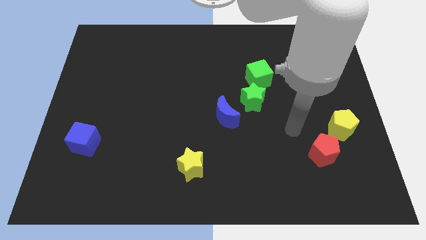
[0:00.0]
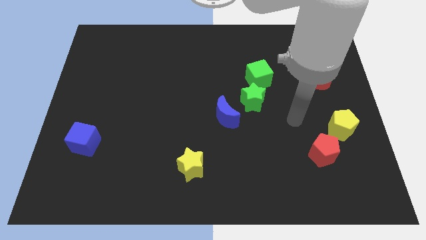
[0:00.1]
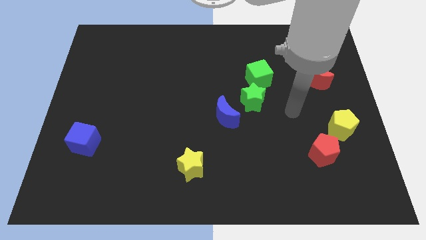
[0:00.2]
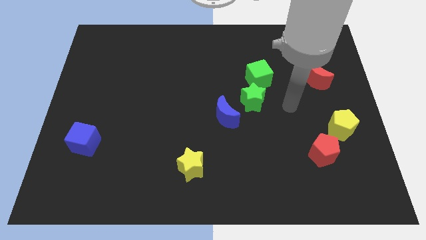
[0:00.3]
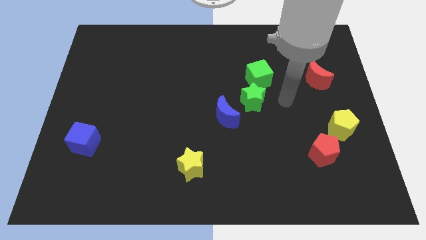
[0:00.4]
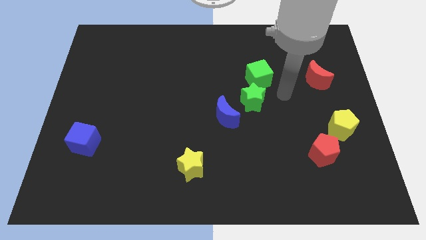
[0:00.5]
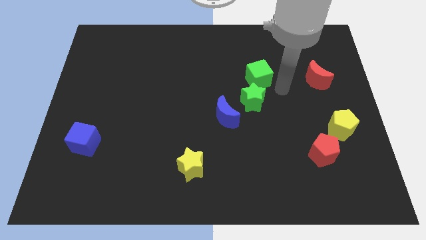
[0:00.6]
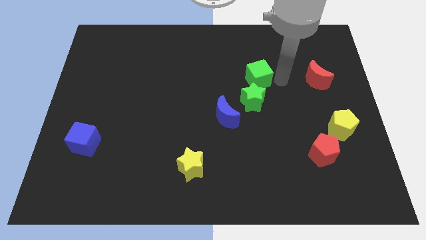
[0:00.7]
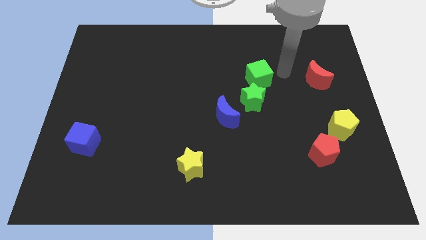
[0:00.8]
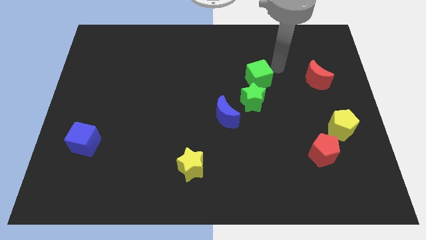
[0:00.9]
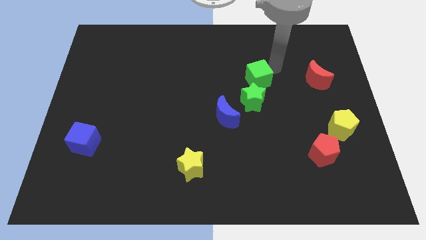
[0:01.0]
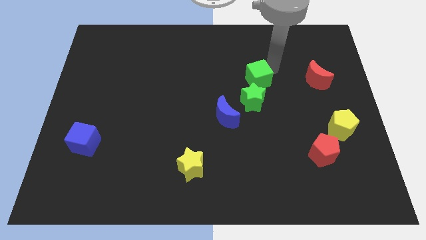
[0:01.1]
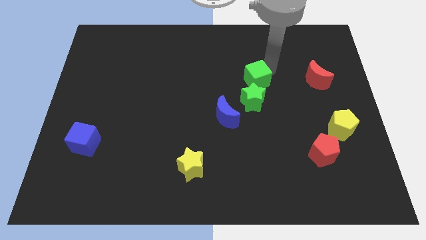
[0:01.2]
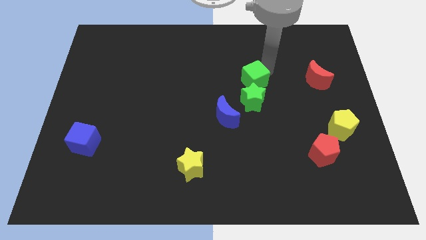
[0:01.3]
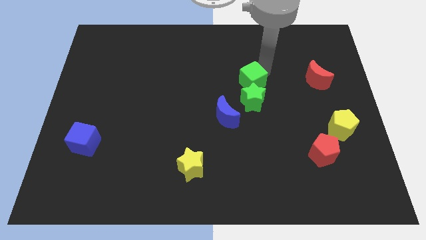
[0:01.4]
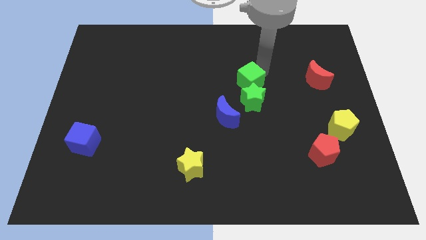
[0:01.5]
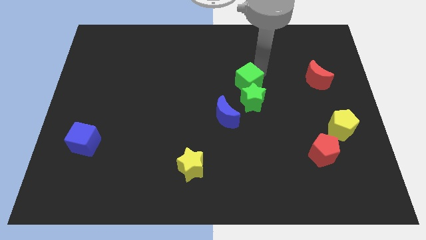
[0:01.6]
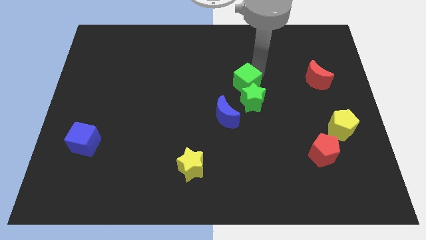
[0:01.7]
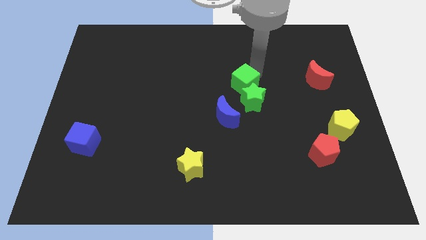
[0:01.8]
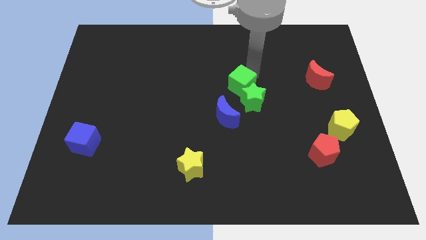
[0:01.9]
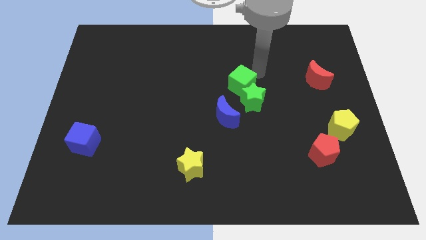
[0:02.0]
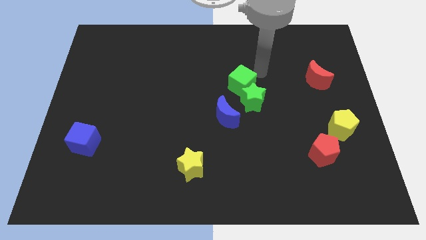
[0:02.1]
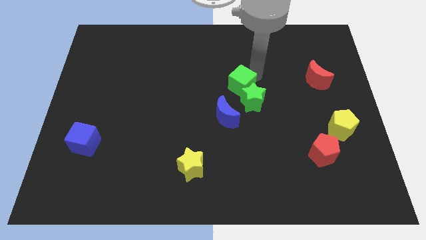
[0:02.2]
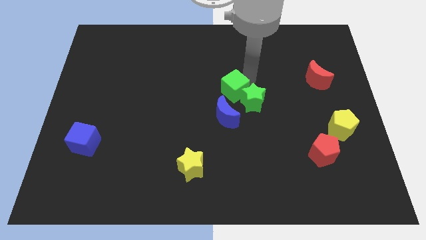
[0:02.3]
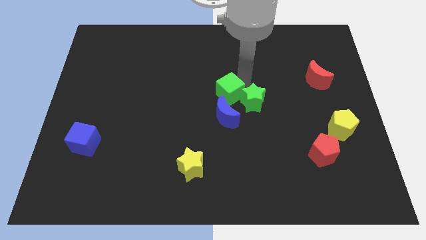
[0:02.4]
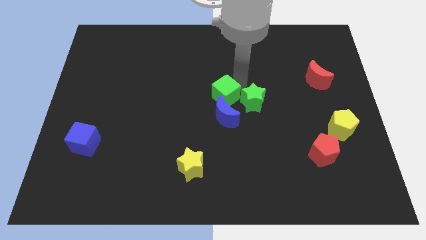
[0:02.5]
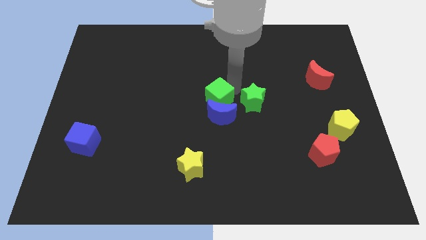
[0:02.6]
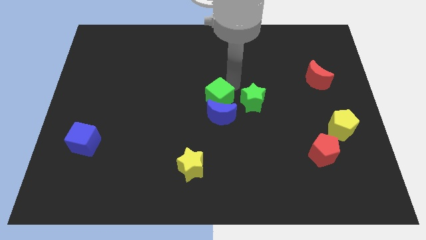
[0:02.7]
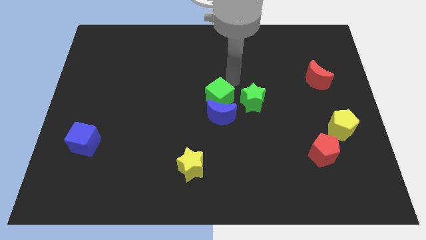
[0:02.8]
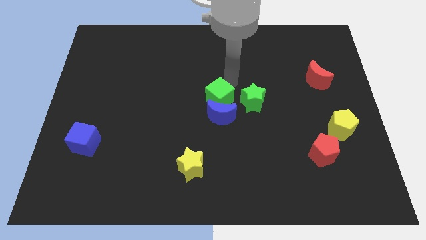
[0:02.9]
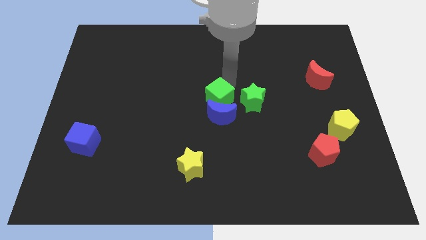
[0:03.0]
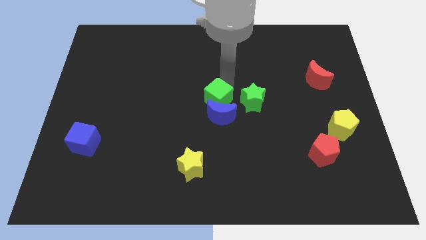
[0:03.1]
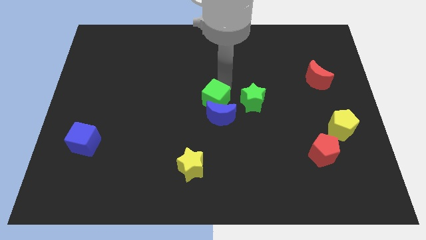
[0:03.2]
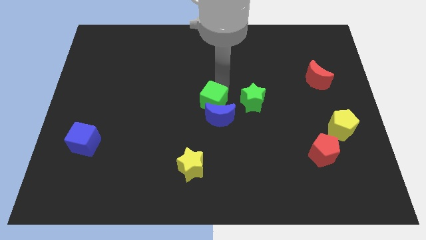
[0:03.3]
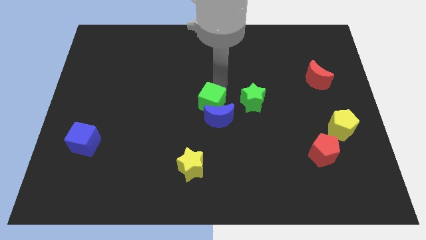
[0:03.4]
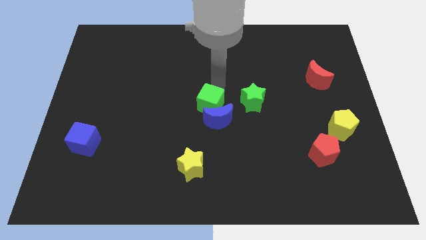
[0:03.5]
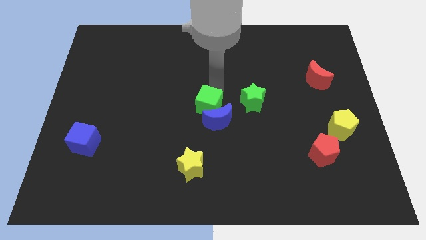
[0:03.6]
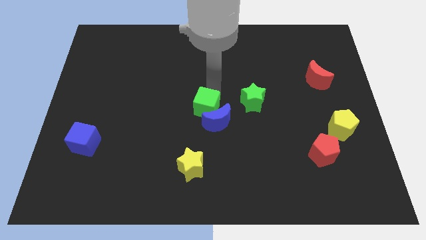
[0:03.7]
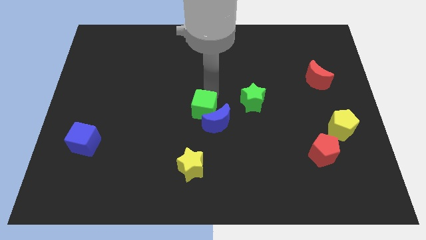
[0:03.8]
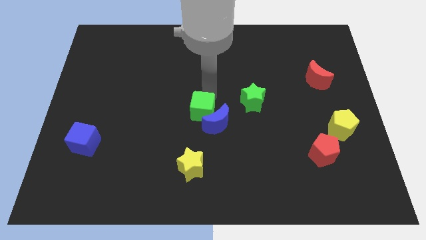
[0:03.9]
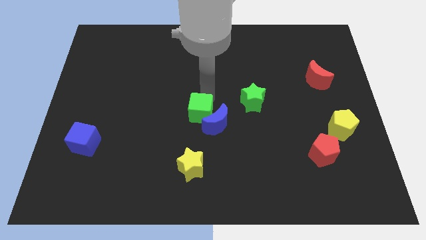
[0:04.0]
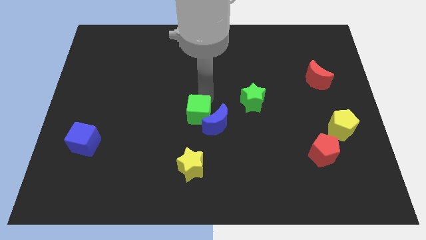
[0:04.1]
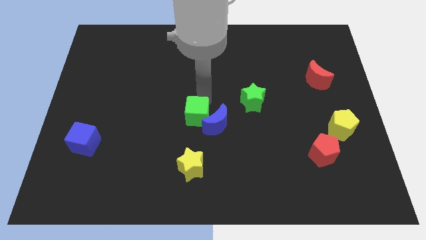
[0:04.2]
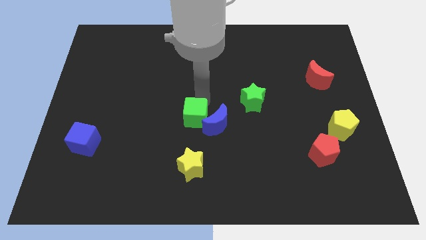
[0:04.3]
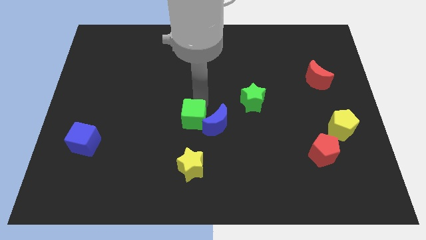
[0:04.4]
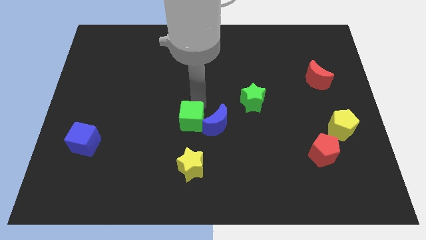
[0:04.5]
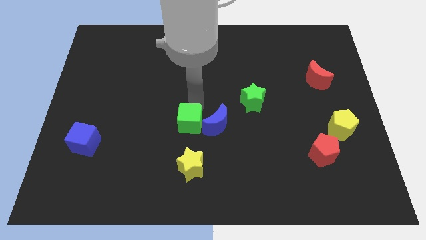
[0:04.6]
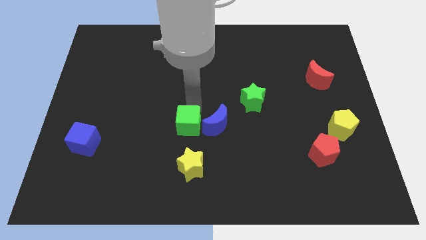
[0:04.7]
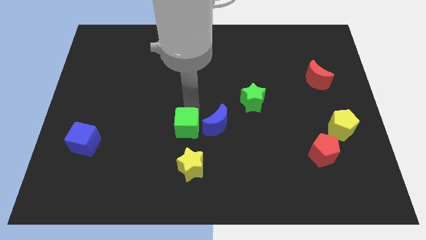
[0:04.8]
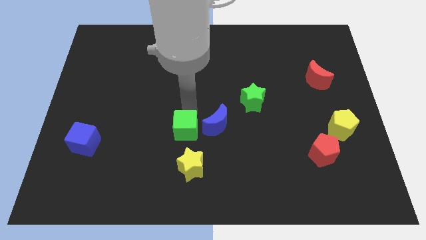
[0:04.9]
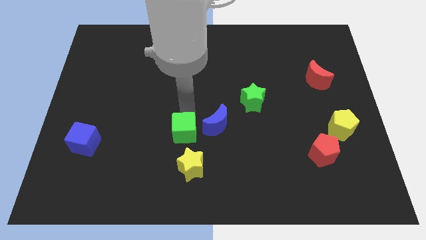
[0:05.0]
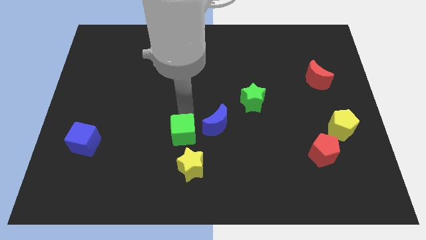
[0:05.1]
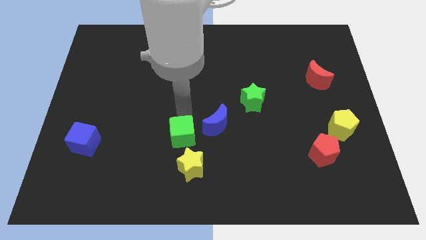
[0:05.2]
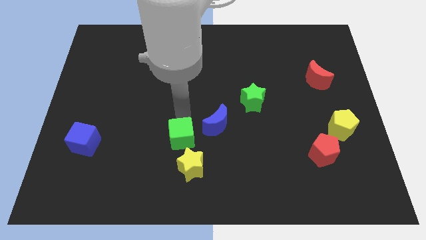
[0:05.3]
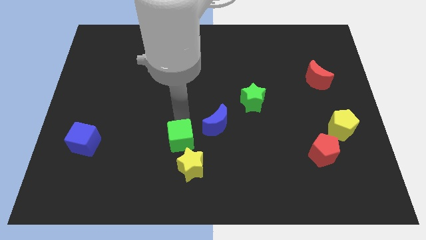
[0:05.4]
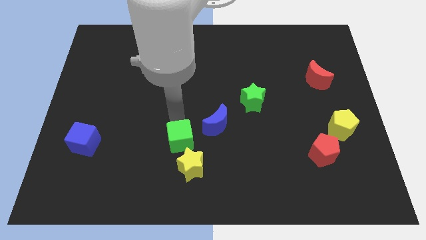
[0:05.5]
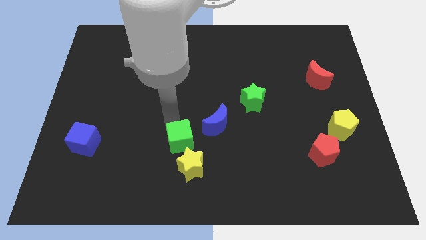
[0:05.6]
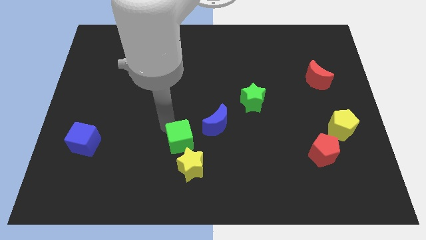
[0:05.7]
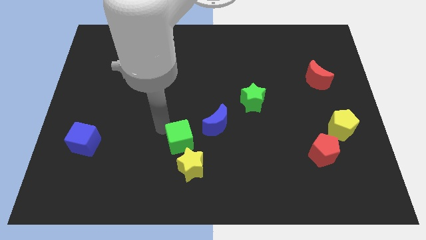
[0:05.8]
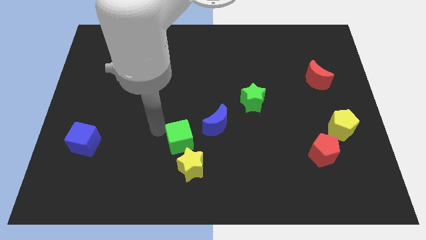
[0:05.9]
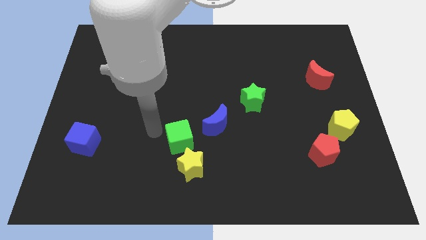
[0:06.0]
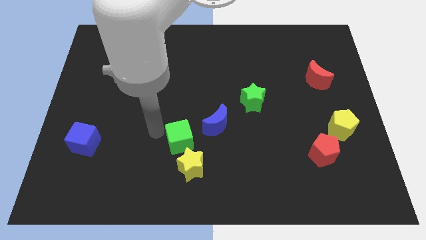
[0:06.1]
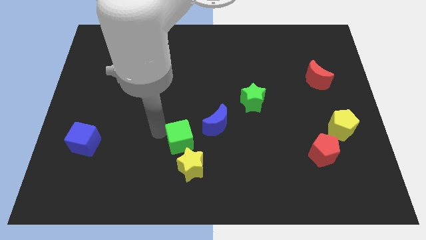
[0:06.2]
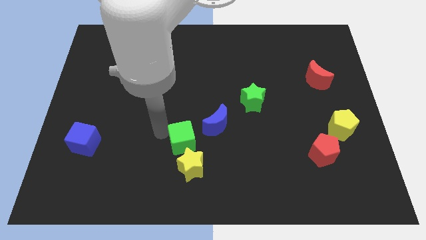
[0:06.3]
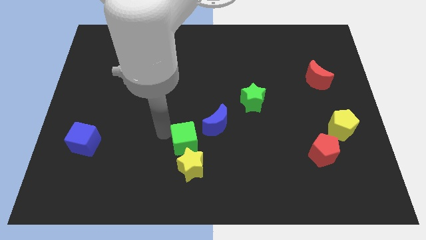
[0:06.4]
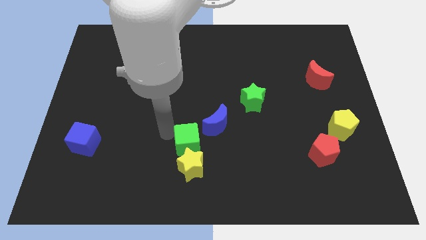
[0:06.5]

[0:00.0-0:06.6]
put the green cube close to the yellow star

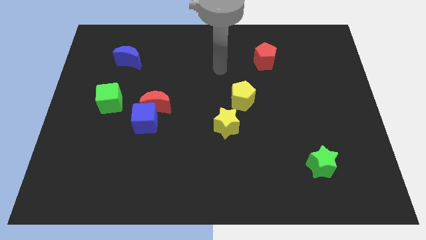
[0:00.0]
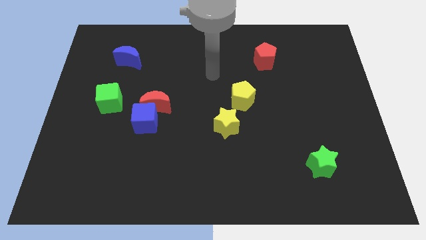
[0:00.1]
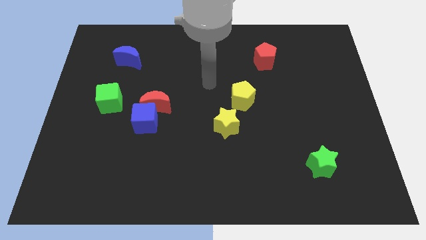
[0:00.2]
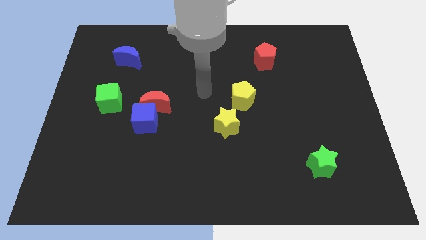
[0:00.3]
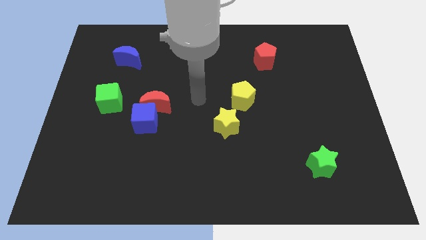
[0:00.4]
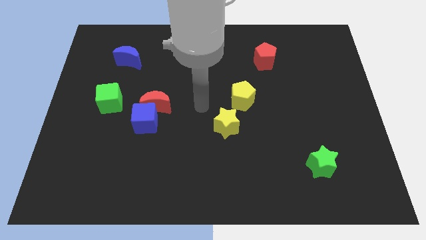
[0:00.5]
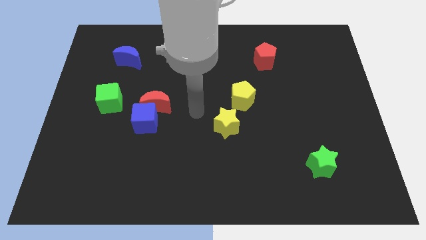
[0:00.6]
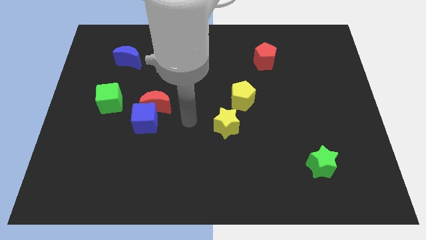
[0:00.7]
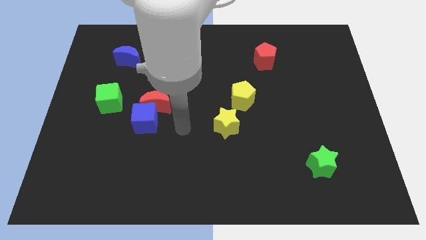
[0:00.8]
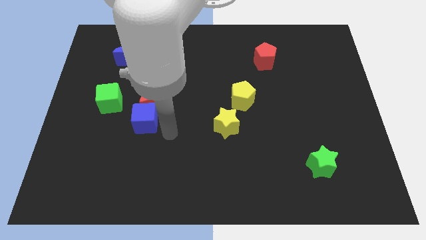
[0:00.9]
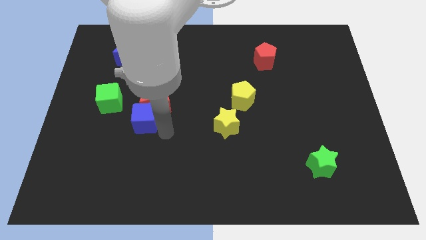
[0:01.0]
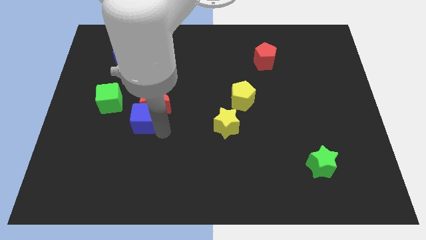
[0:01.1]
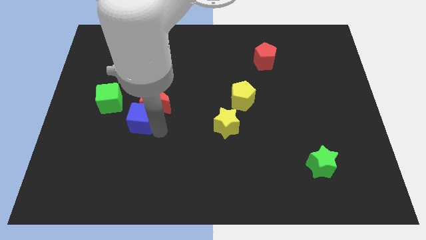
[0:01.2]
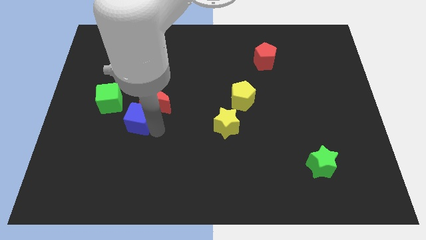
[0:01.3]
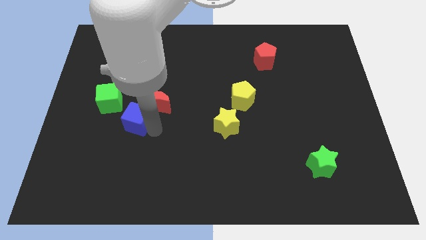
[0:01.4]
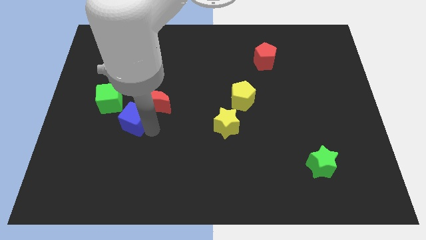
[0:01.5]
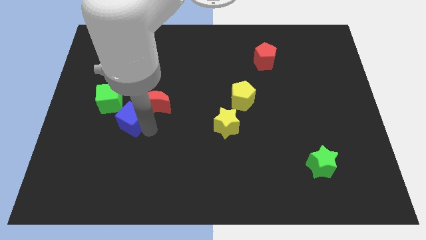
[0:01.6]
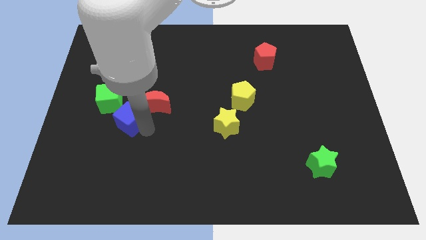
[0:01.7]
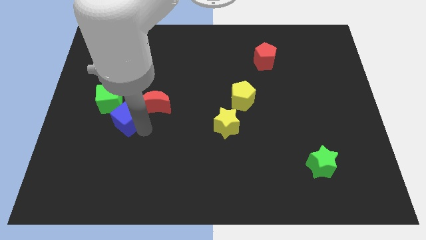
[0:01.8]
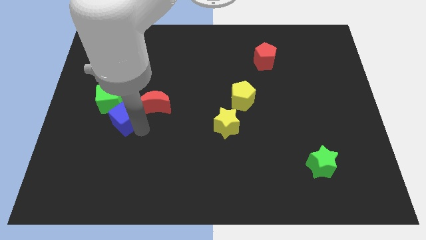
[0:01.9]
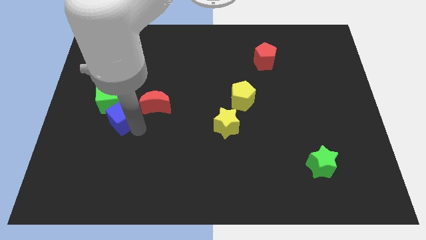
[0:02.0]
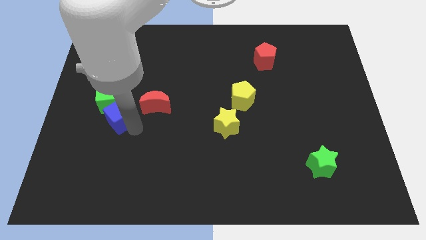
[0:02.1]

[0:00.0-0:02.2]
push the blue cube to the green cube
